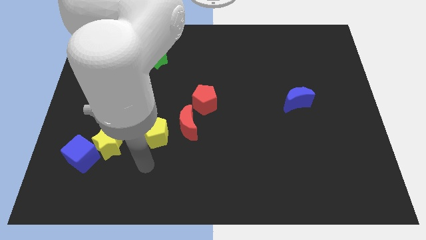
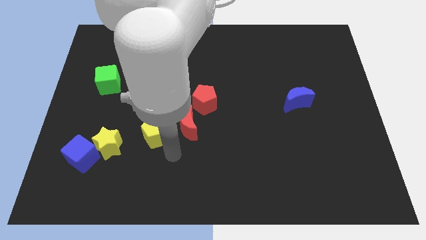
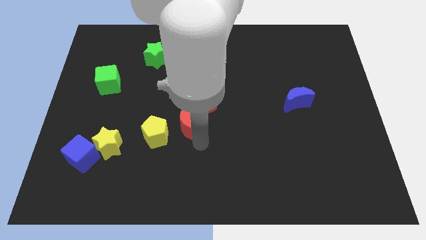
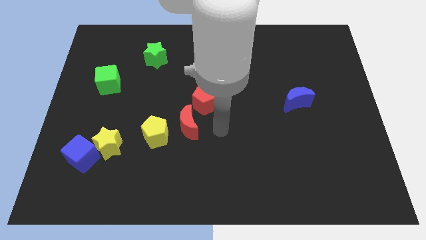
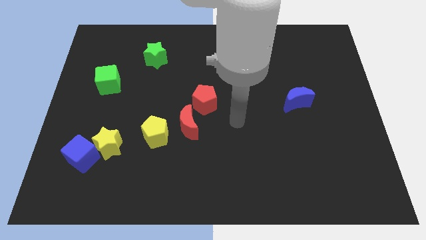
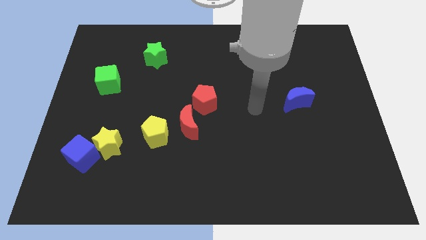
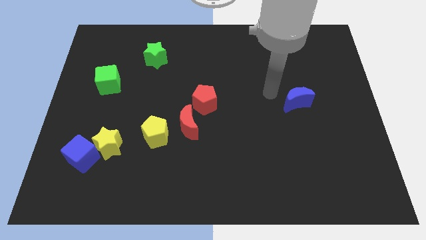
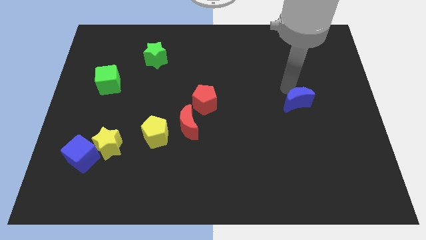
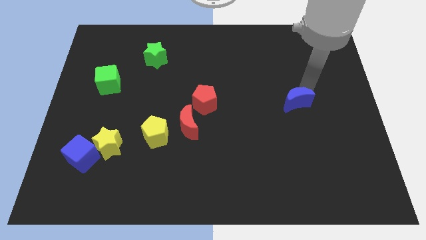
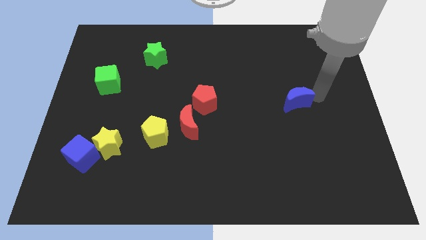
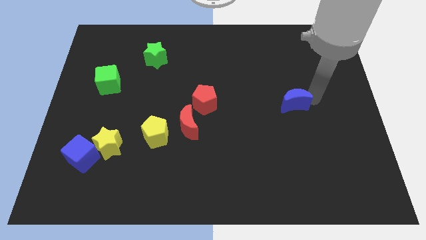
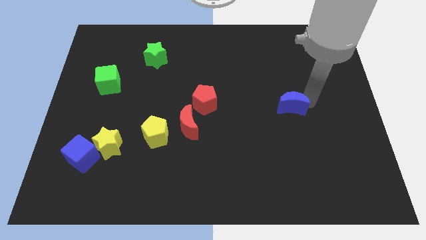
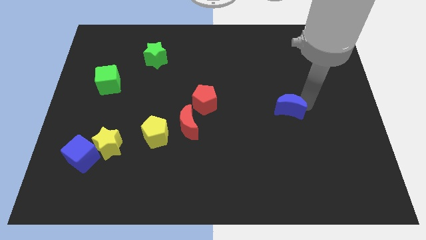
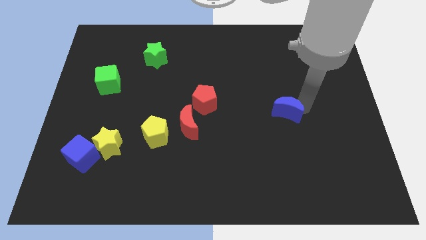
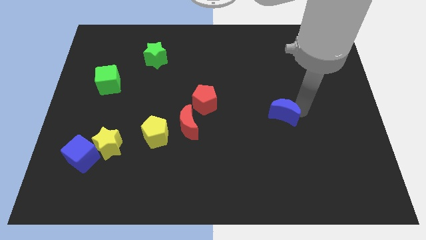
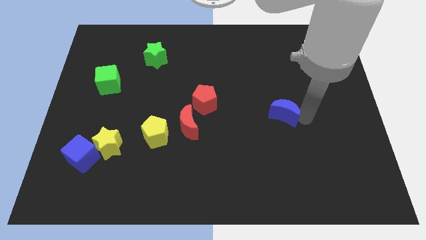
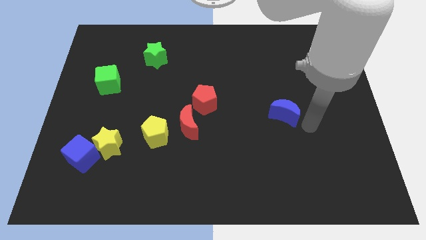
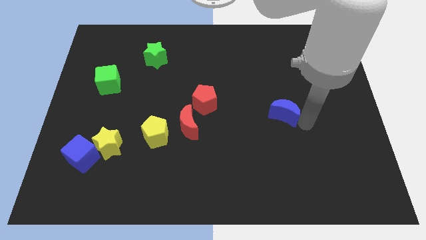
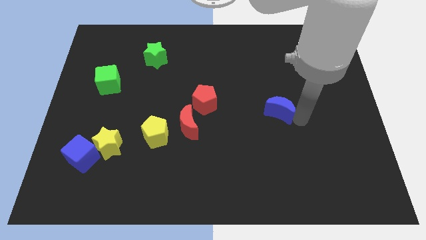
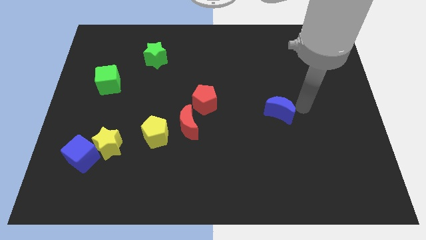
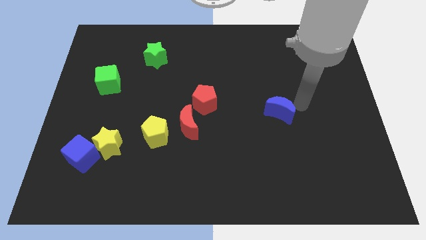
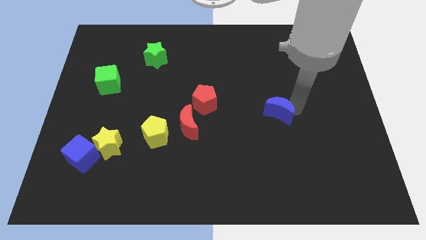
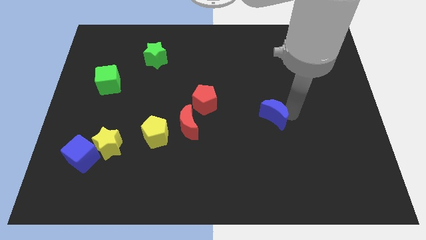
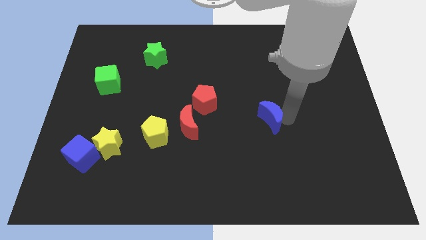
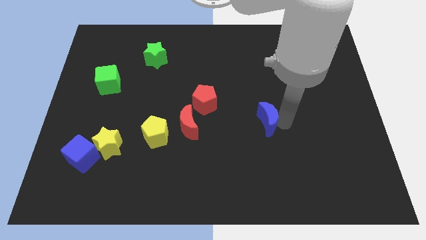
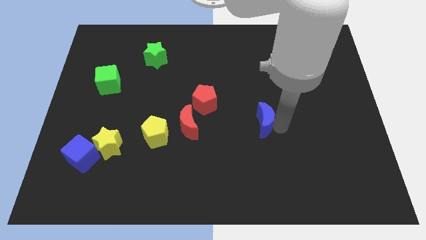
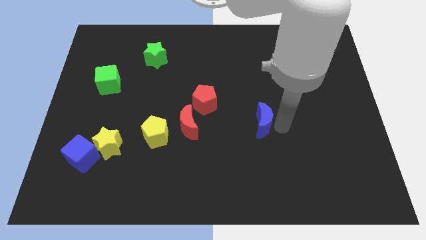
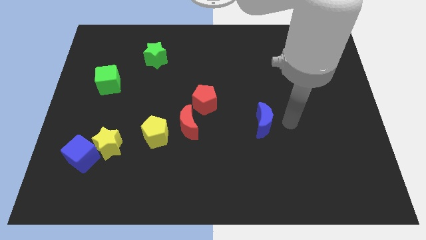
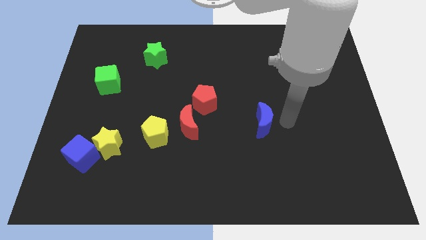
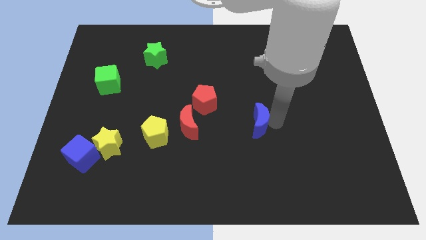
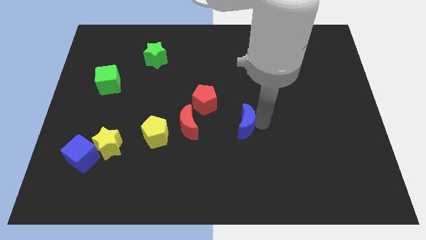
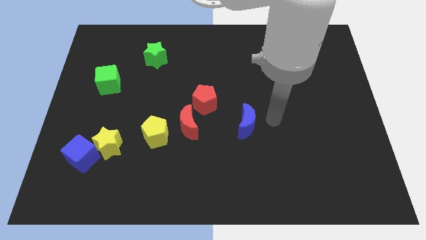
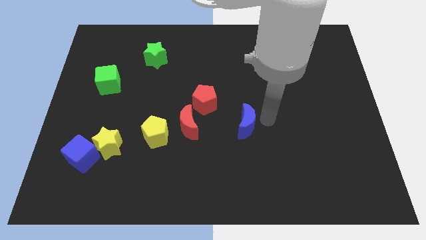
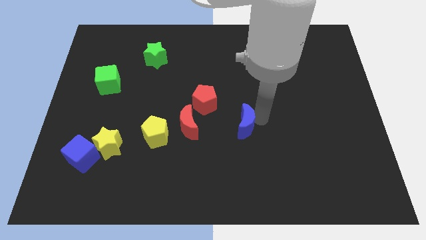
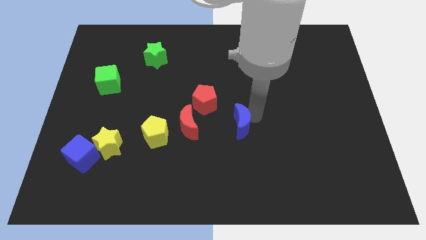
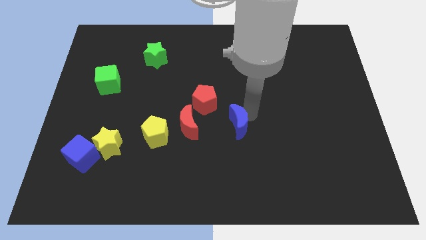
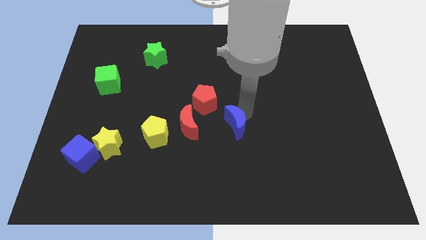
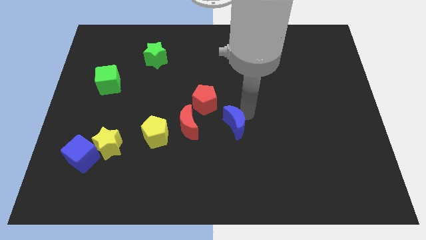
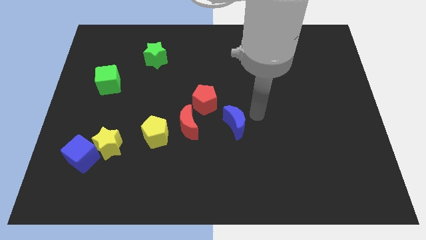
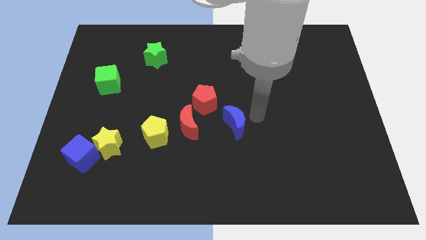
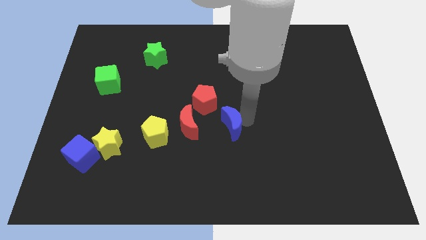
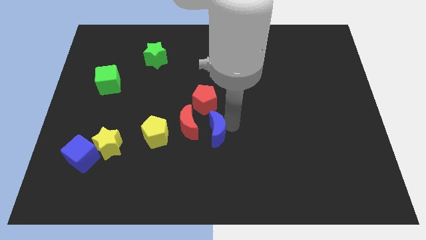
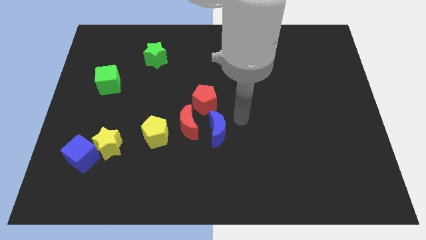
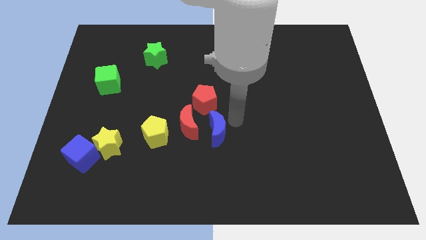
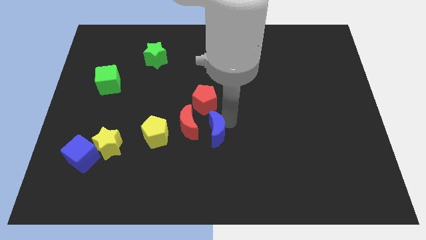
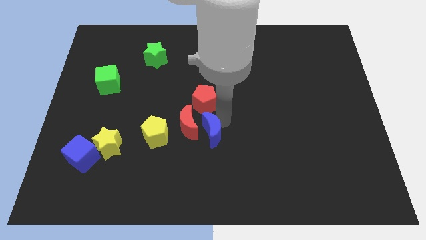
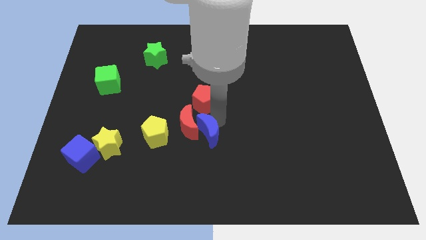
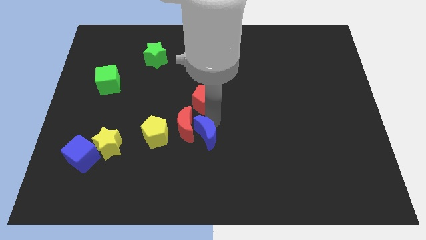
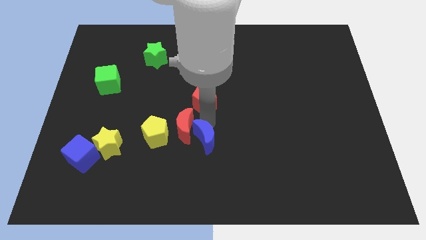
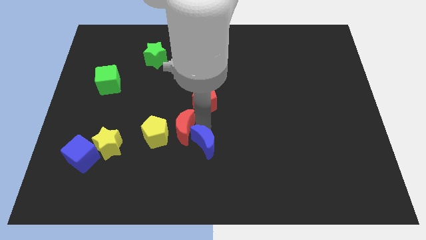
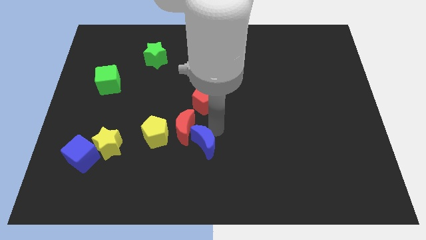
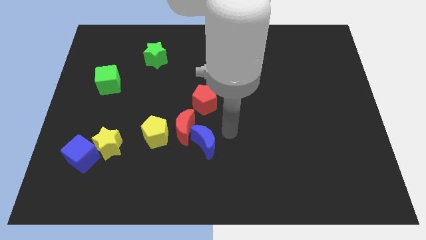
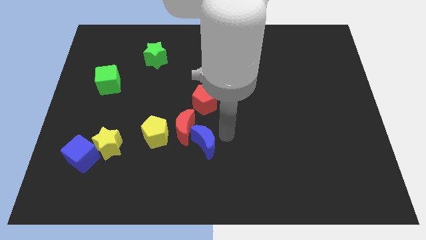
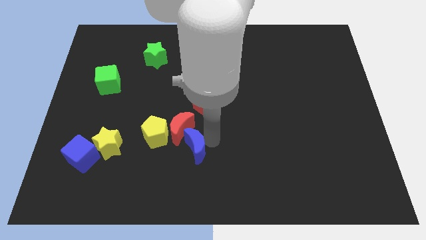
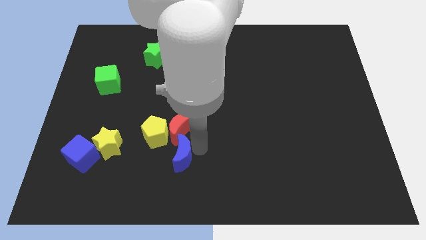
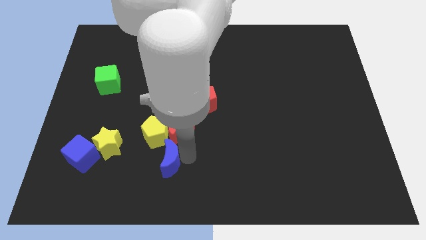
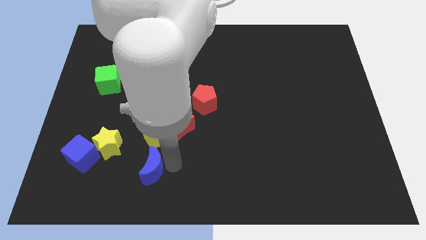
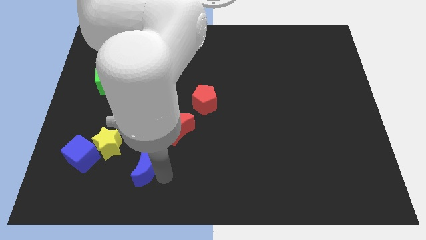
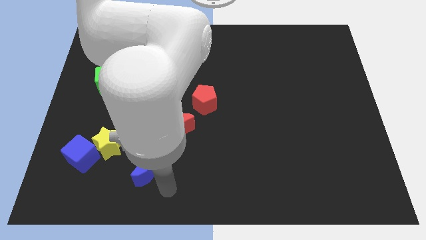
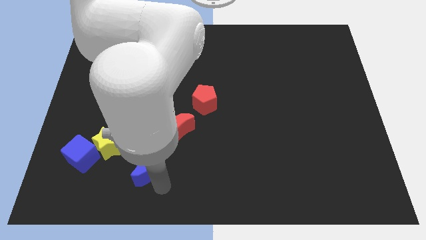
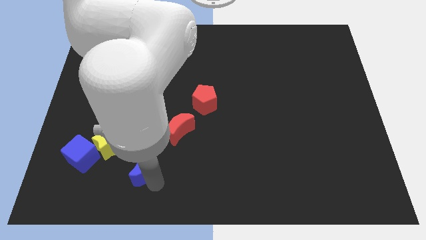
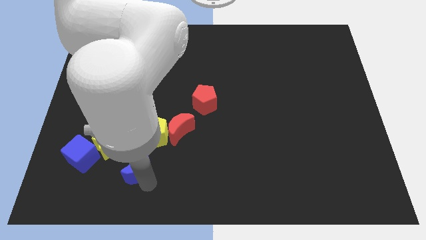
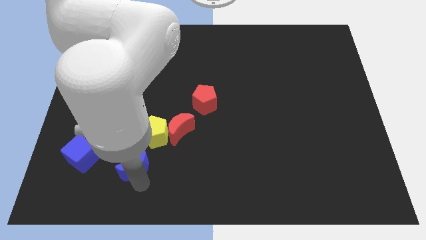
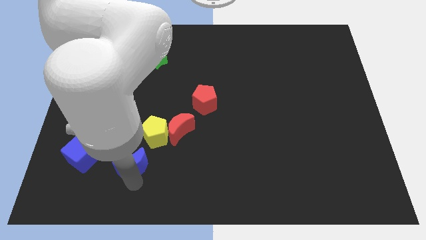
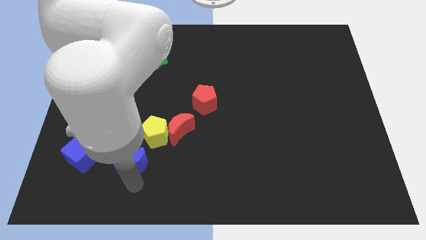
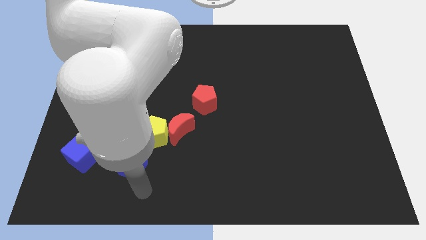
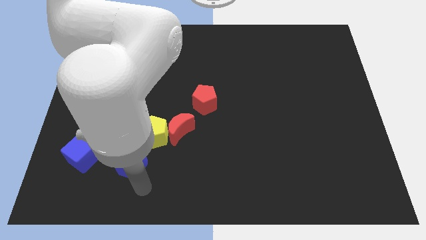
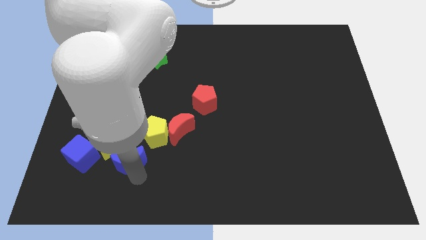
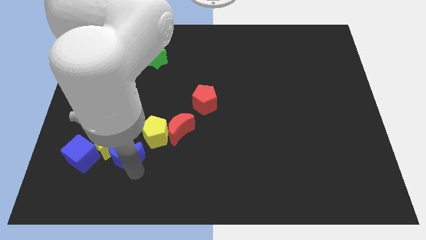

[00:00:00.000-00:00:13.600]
push the blue moon to the yellow star
